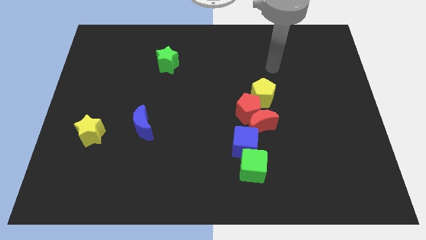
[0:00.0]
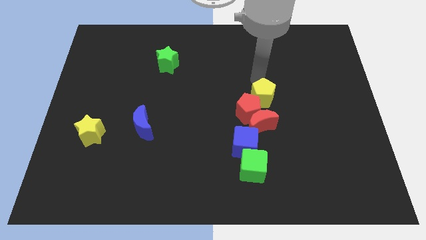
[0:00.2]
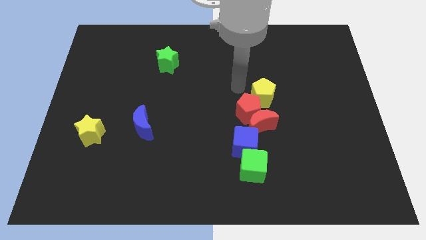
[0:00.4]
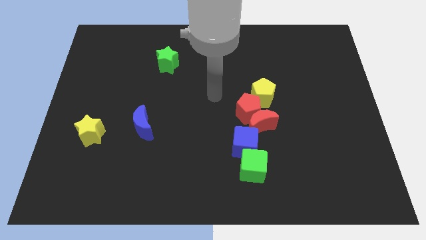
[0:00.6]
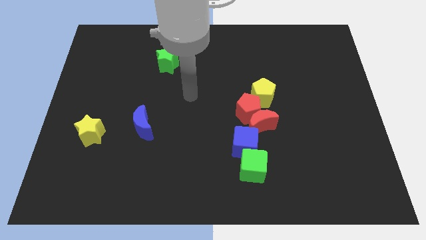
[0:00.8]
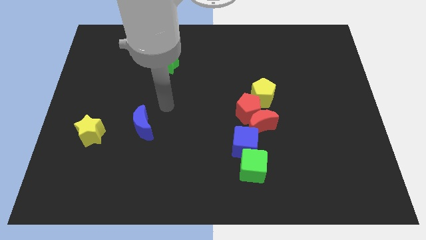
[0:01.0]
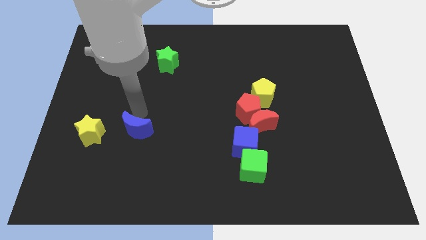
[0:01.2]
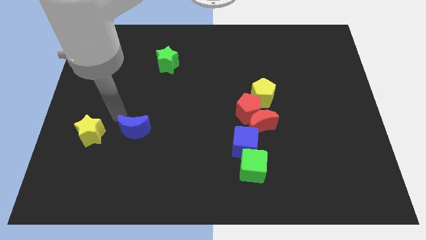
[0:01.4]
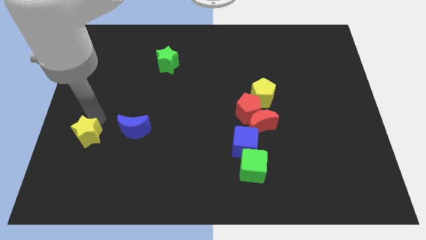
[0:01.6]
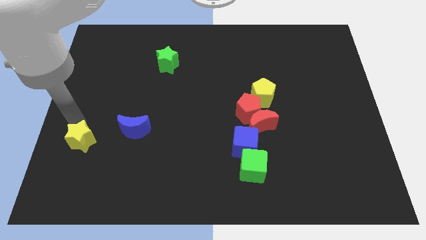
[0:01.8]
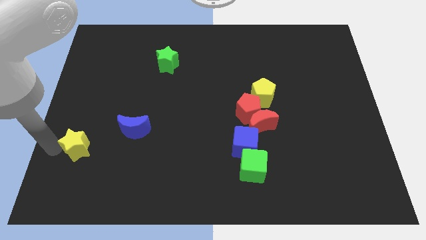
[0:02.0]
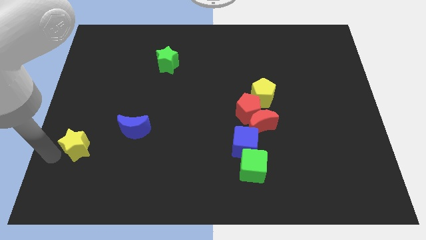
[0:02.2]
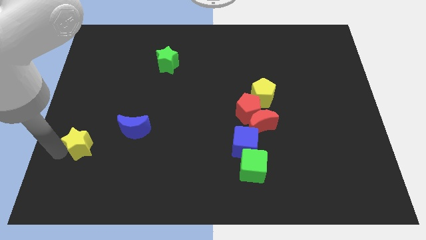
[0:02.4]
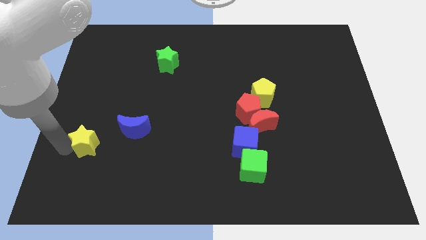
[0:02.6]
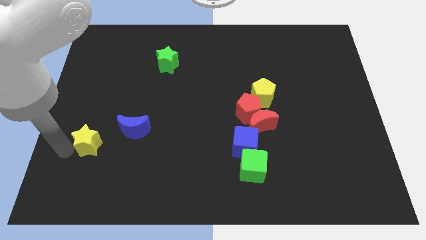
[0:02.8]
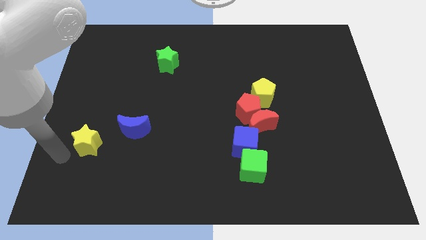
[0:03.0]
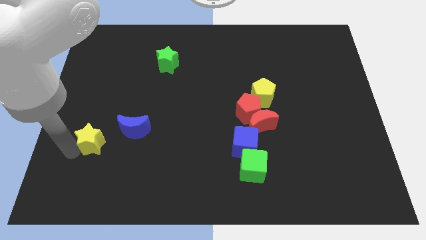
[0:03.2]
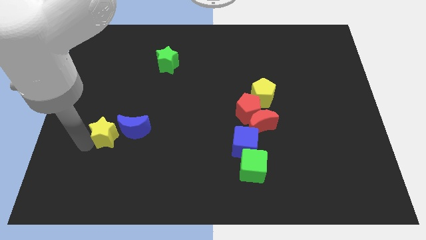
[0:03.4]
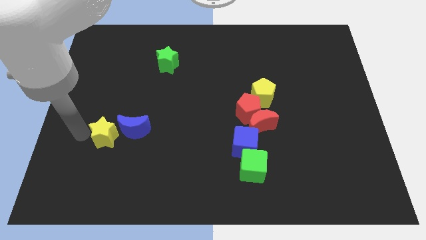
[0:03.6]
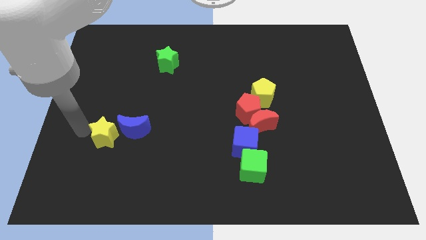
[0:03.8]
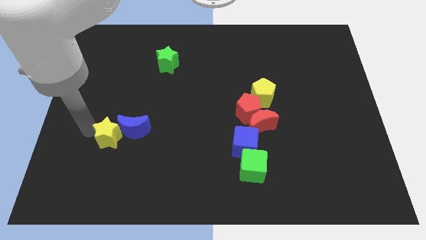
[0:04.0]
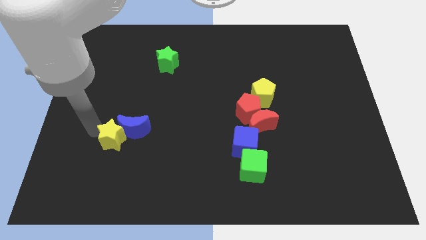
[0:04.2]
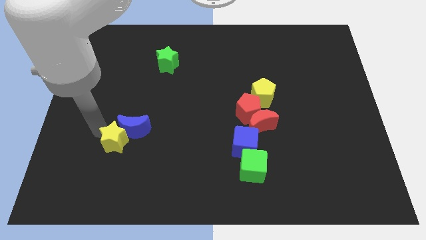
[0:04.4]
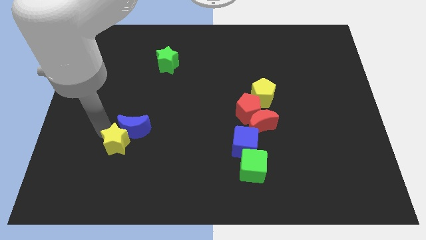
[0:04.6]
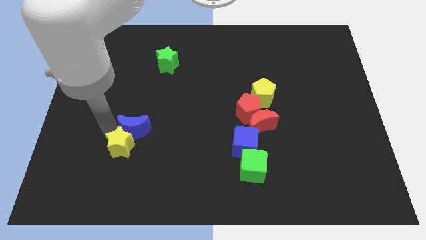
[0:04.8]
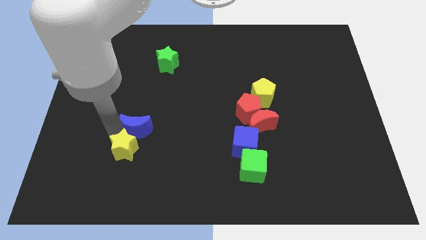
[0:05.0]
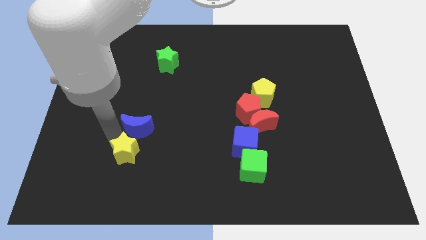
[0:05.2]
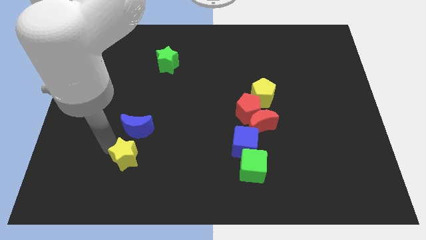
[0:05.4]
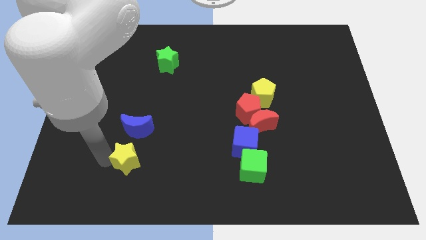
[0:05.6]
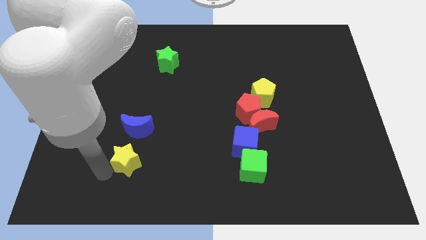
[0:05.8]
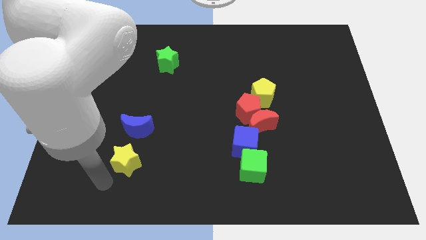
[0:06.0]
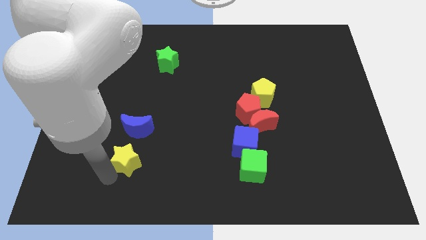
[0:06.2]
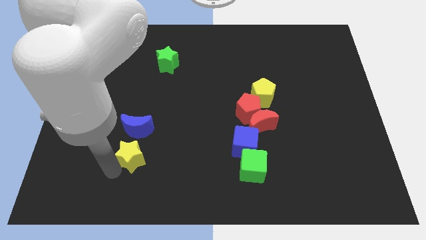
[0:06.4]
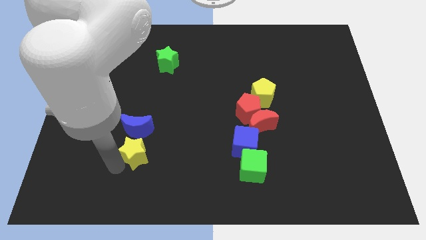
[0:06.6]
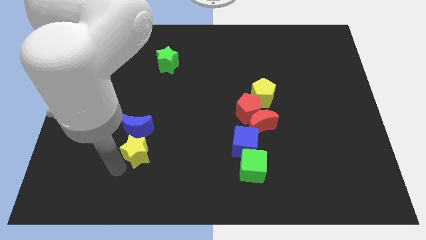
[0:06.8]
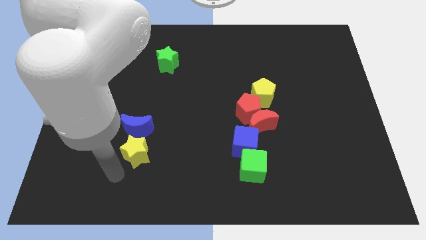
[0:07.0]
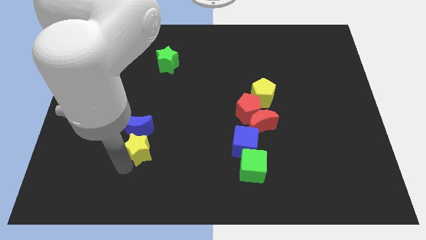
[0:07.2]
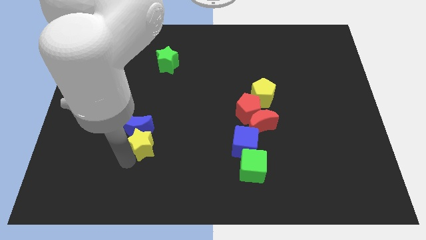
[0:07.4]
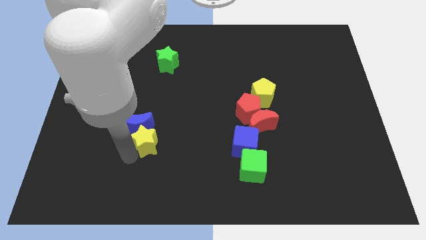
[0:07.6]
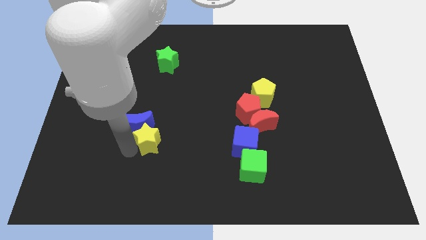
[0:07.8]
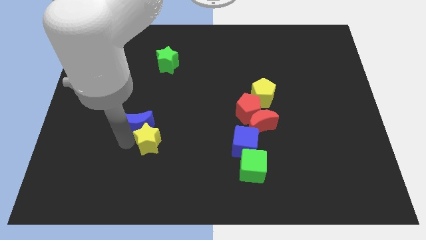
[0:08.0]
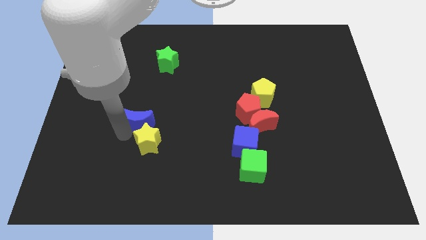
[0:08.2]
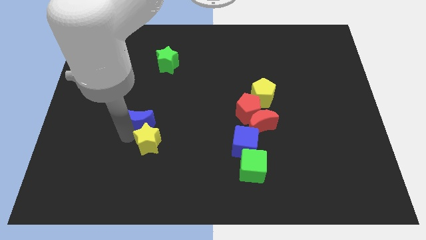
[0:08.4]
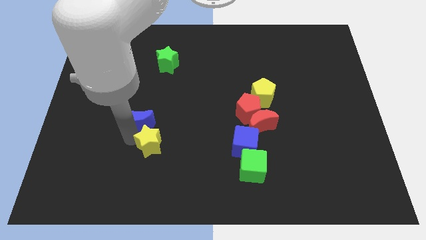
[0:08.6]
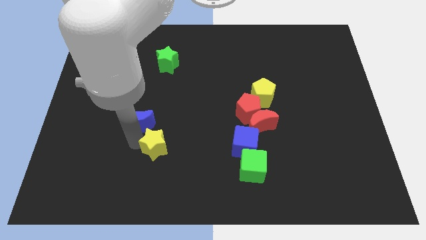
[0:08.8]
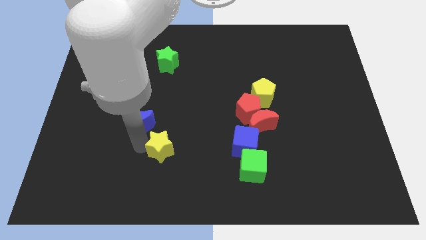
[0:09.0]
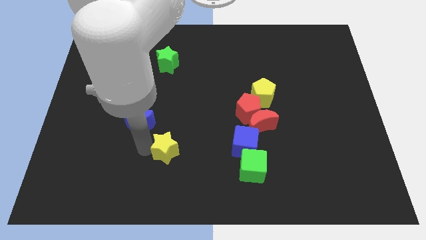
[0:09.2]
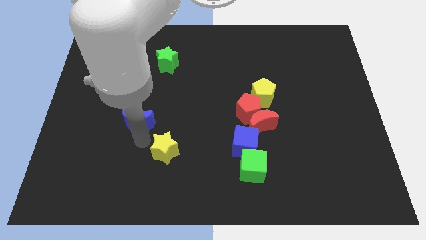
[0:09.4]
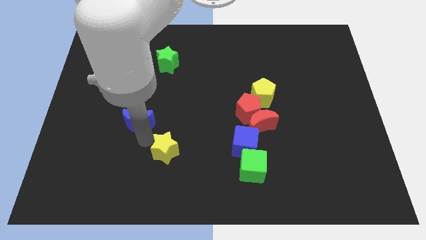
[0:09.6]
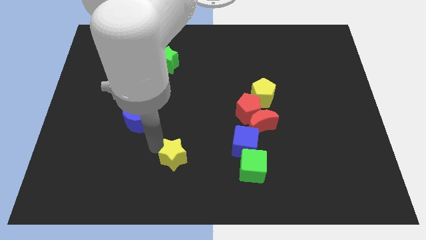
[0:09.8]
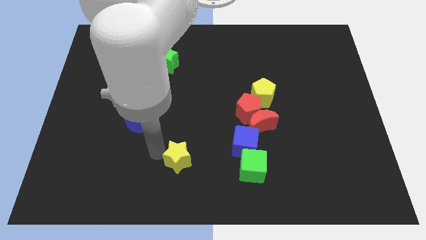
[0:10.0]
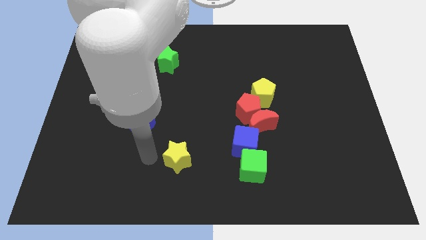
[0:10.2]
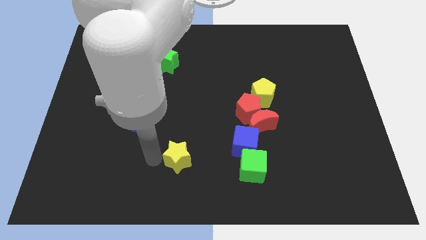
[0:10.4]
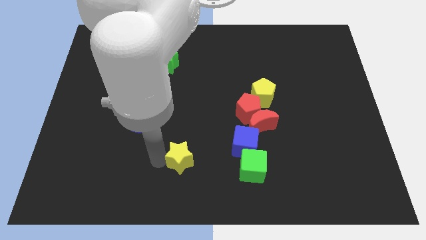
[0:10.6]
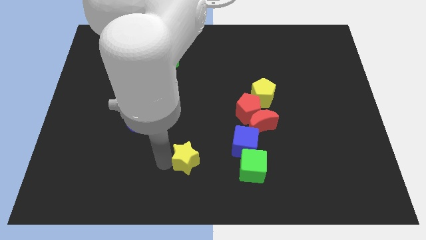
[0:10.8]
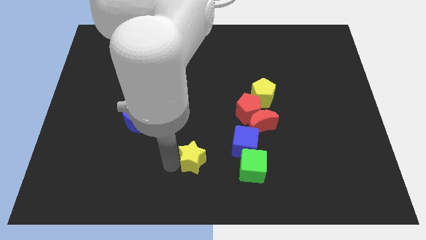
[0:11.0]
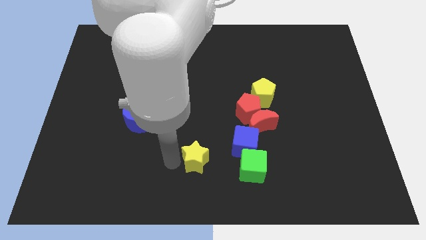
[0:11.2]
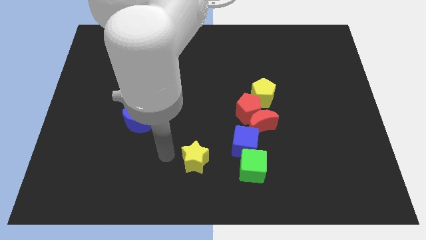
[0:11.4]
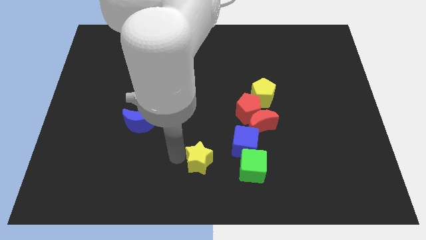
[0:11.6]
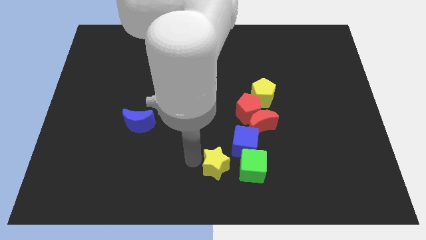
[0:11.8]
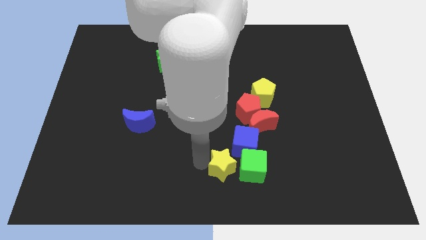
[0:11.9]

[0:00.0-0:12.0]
move the yellow star close to the green cube

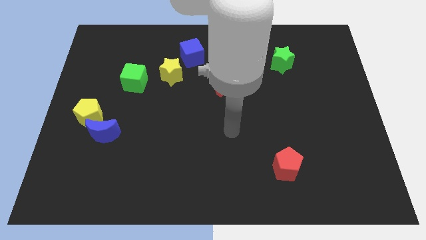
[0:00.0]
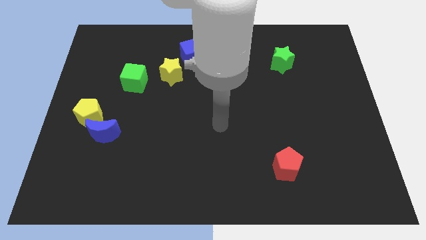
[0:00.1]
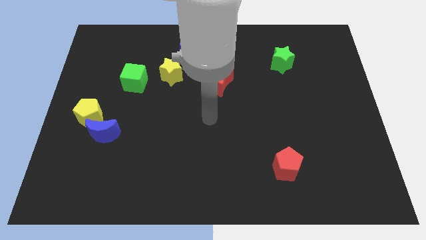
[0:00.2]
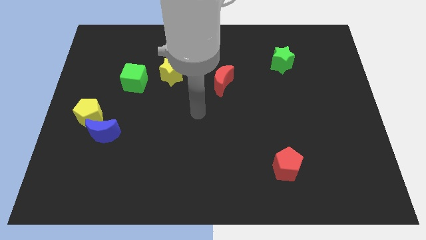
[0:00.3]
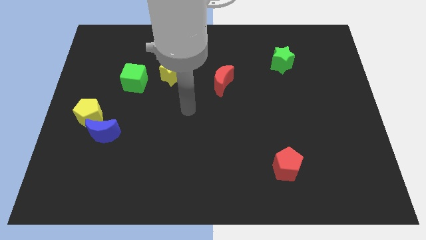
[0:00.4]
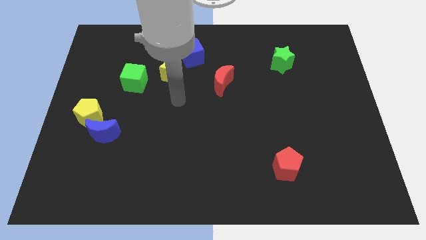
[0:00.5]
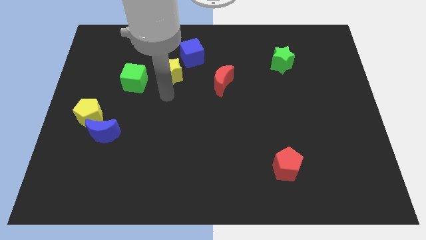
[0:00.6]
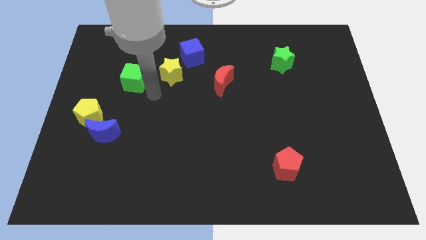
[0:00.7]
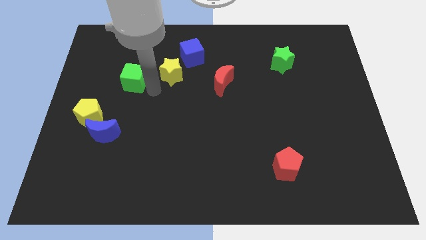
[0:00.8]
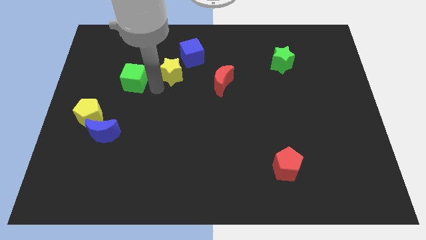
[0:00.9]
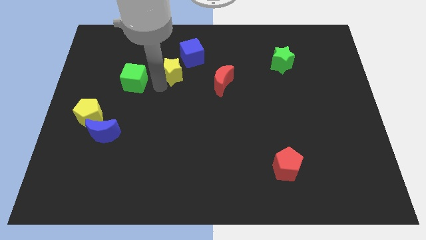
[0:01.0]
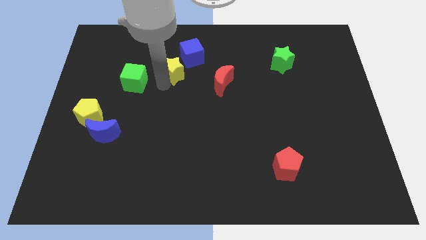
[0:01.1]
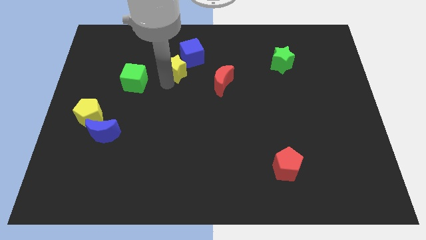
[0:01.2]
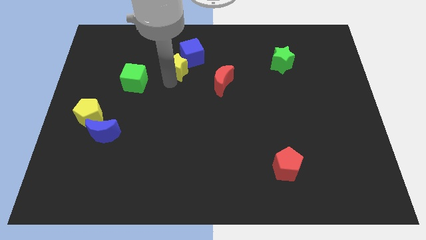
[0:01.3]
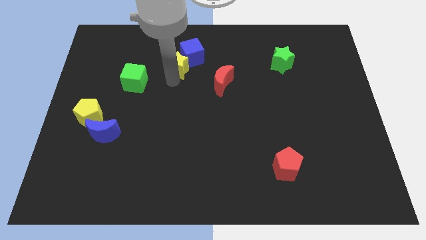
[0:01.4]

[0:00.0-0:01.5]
slide the yellow star to the blue cube
